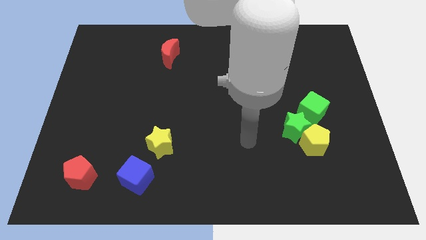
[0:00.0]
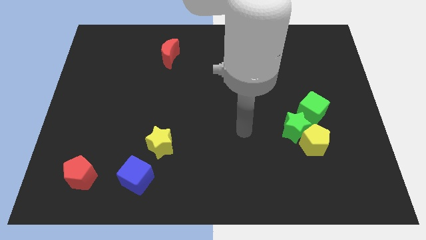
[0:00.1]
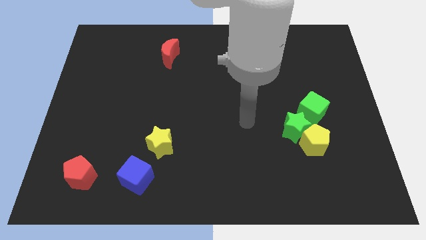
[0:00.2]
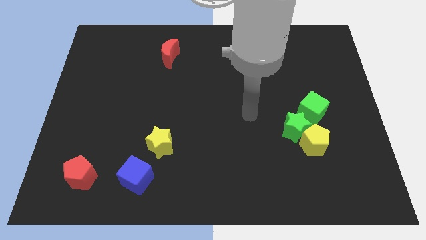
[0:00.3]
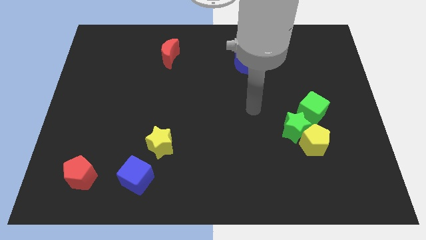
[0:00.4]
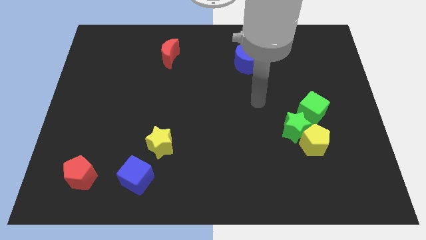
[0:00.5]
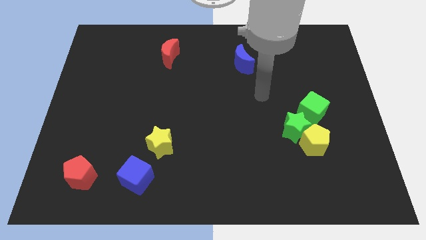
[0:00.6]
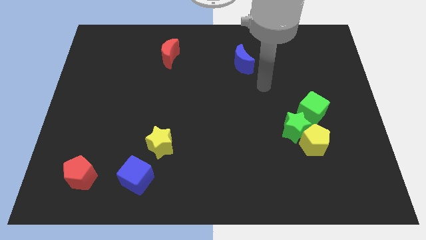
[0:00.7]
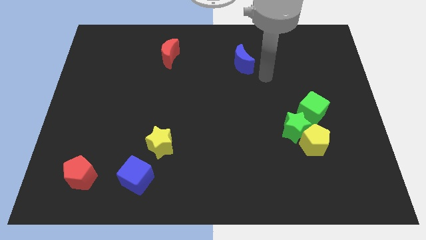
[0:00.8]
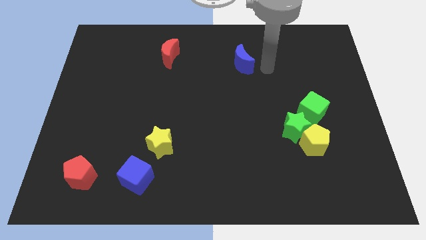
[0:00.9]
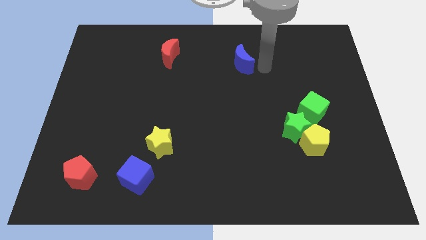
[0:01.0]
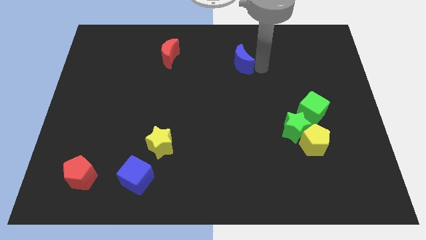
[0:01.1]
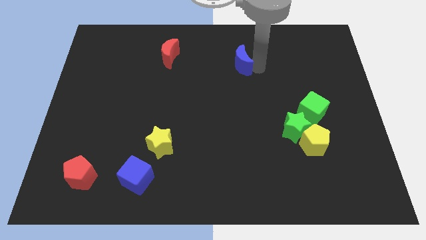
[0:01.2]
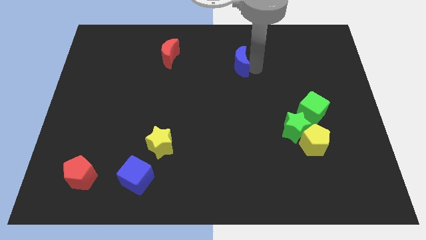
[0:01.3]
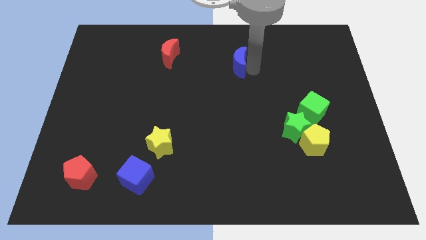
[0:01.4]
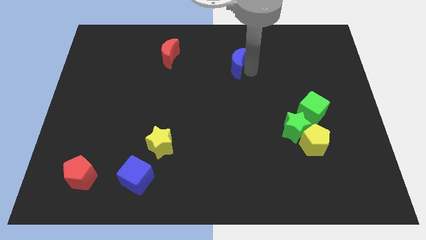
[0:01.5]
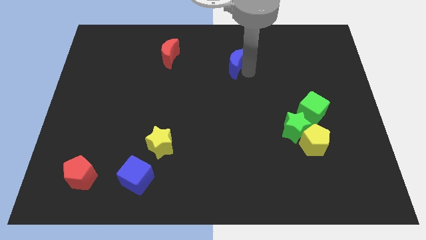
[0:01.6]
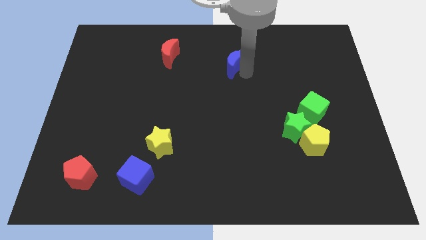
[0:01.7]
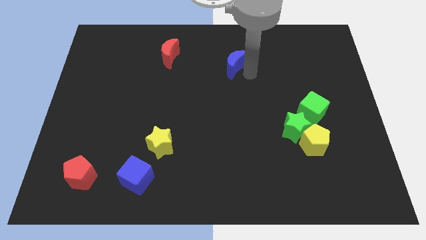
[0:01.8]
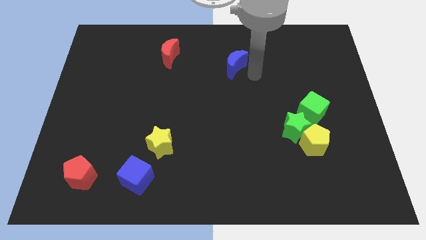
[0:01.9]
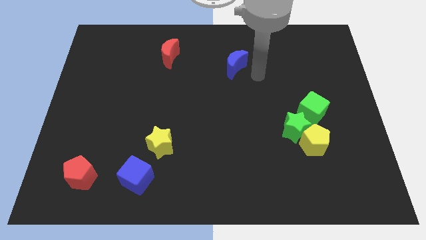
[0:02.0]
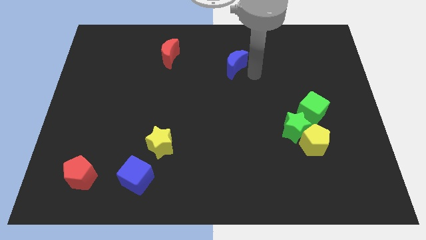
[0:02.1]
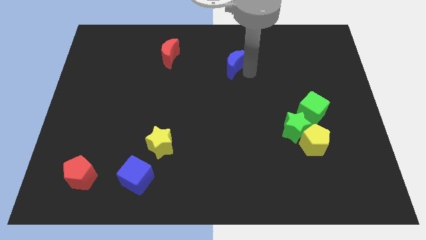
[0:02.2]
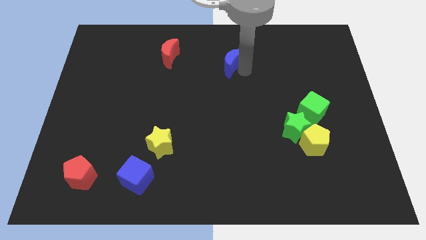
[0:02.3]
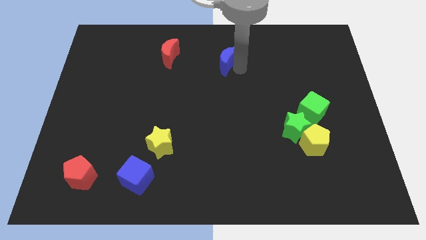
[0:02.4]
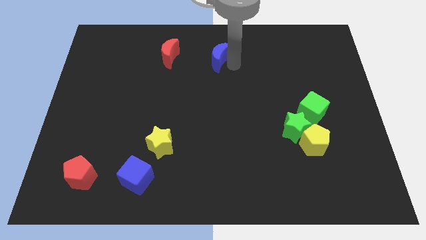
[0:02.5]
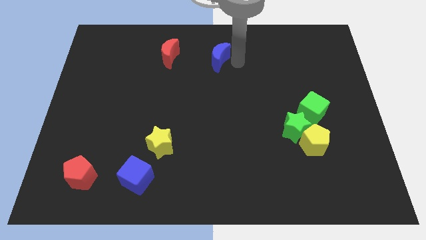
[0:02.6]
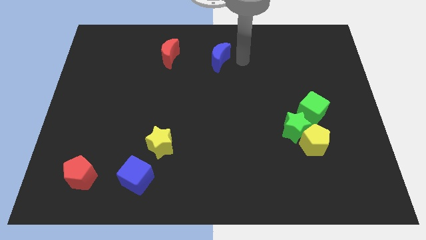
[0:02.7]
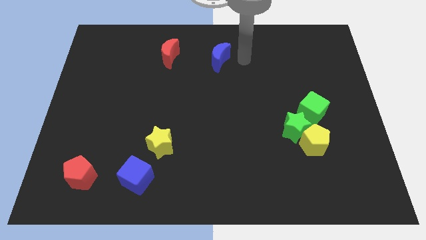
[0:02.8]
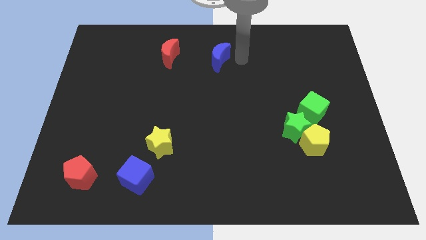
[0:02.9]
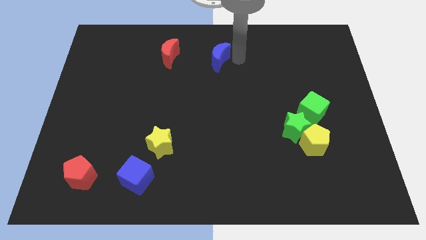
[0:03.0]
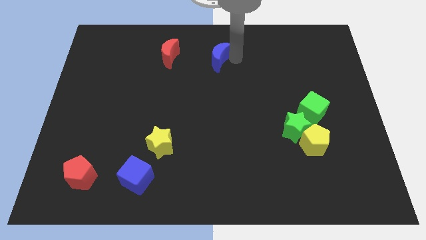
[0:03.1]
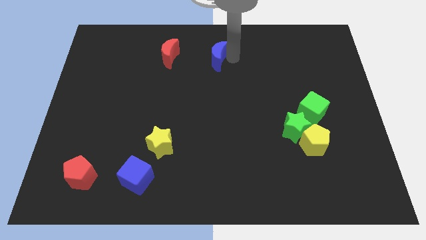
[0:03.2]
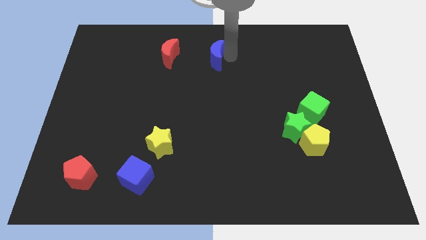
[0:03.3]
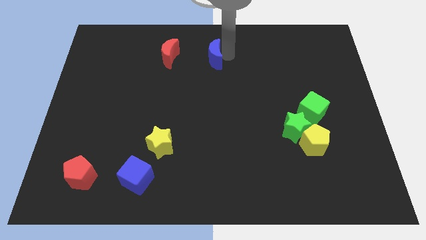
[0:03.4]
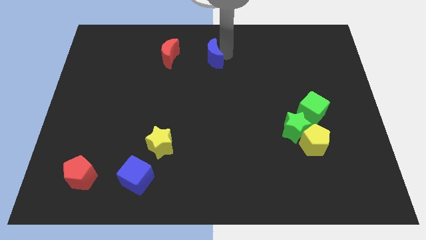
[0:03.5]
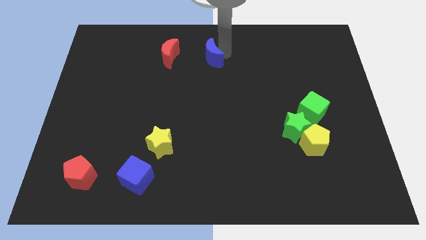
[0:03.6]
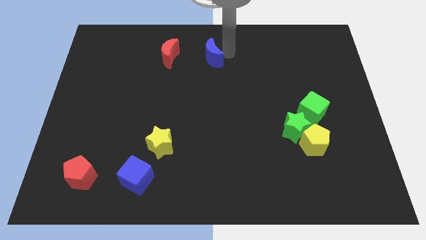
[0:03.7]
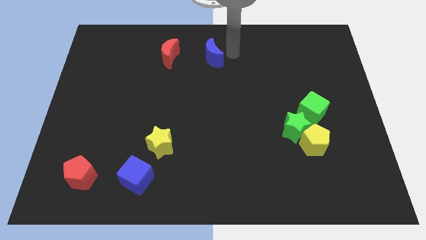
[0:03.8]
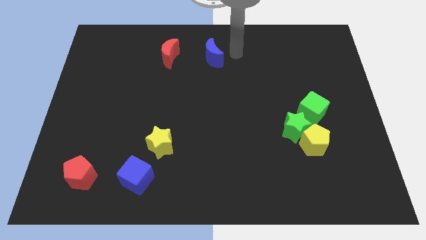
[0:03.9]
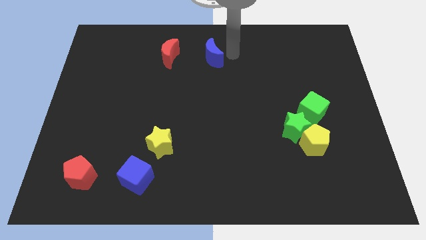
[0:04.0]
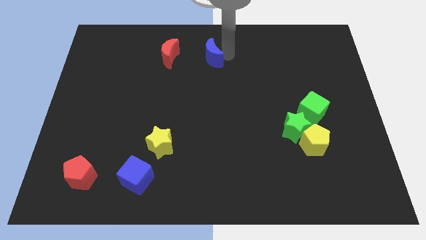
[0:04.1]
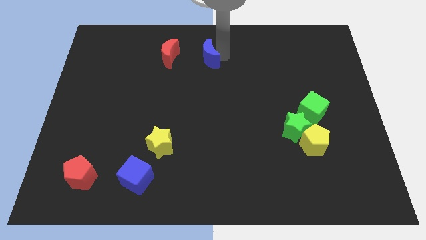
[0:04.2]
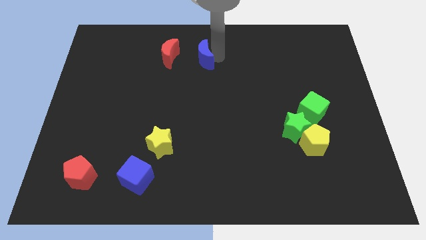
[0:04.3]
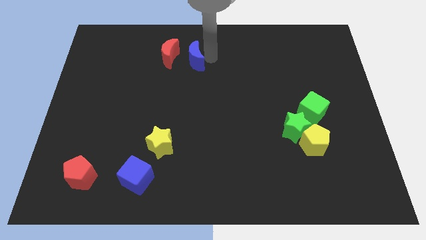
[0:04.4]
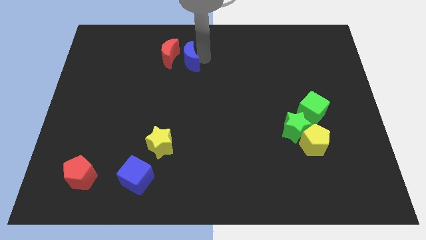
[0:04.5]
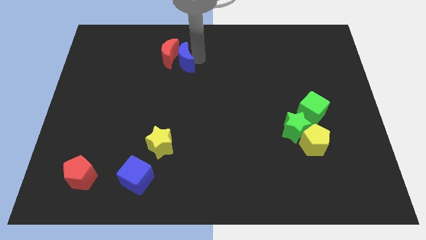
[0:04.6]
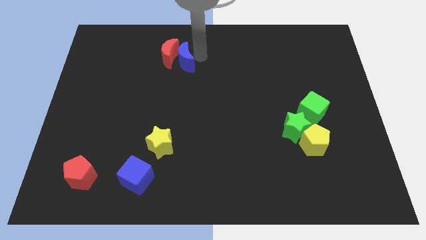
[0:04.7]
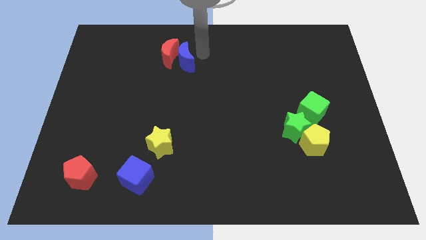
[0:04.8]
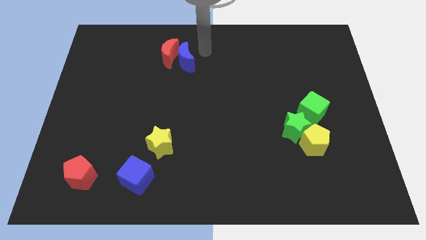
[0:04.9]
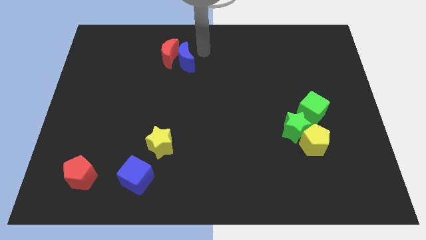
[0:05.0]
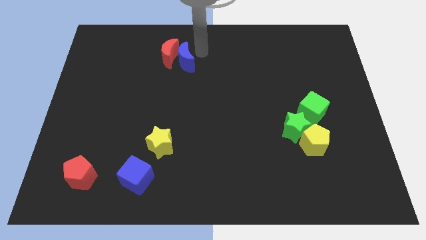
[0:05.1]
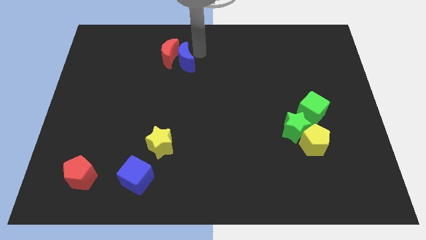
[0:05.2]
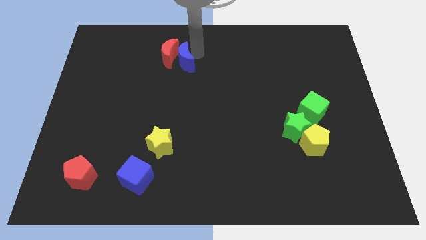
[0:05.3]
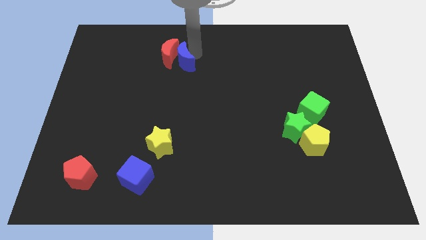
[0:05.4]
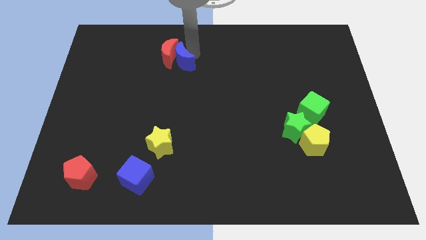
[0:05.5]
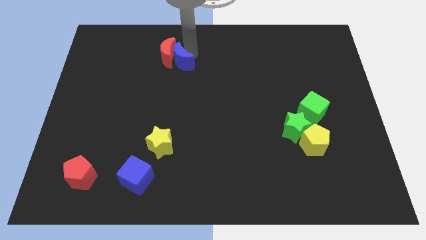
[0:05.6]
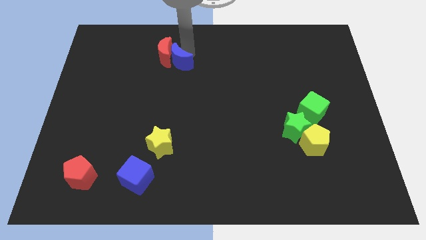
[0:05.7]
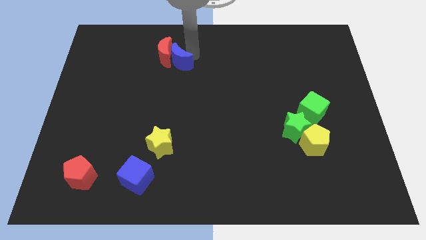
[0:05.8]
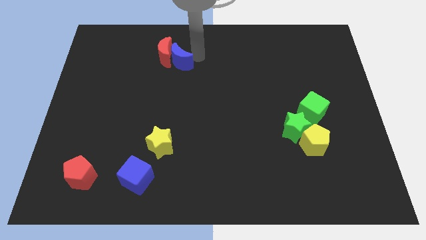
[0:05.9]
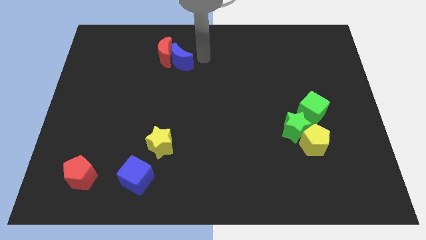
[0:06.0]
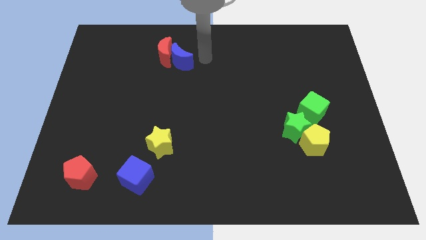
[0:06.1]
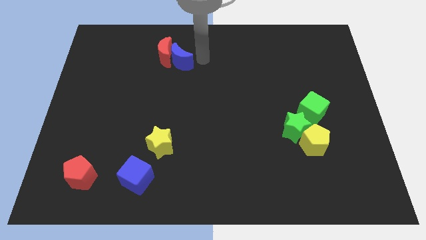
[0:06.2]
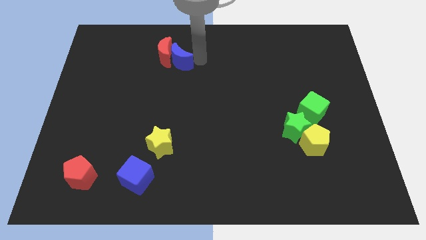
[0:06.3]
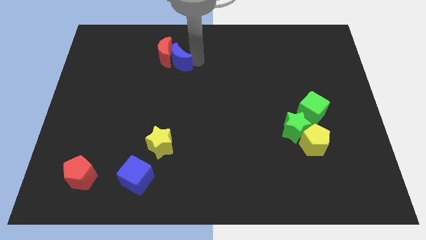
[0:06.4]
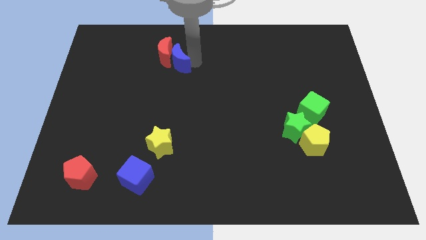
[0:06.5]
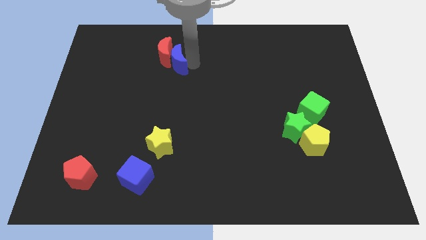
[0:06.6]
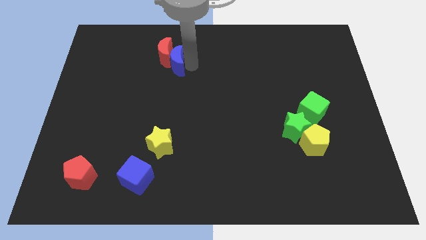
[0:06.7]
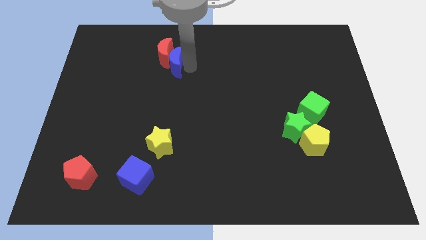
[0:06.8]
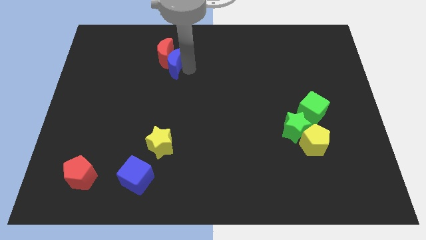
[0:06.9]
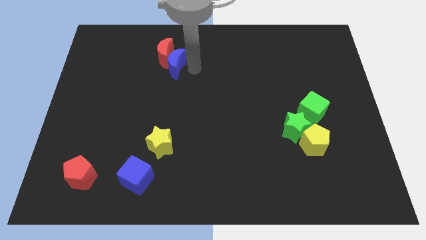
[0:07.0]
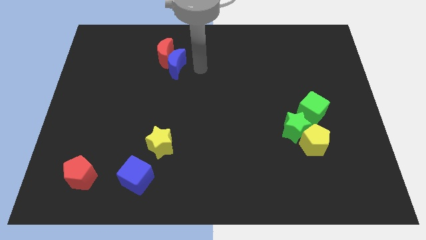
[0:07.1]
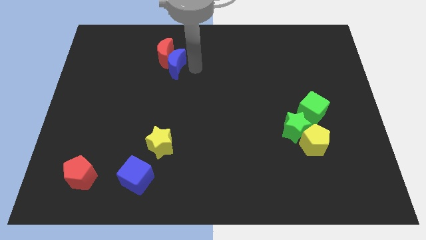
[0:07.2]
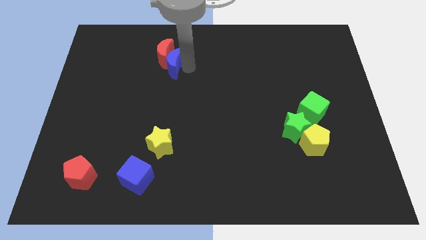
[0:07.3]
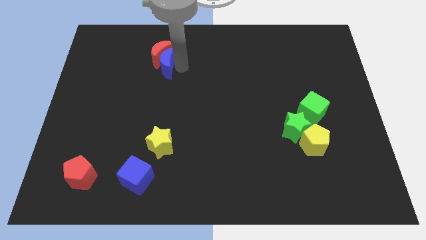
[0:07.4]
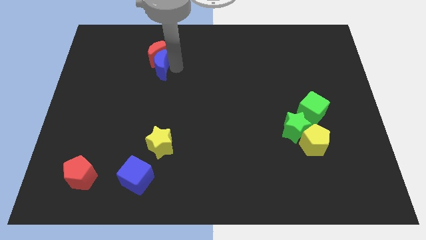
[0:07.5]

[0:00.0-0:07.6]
slide the blue moon to the left

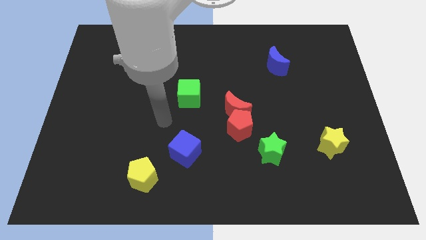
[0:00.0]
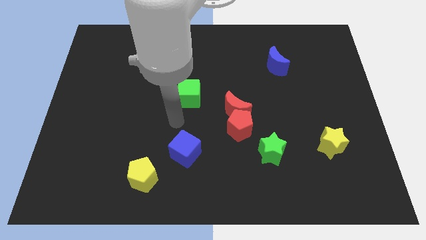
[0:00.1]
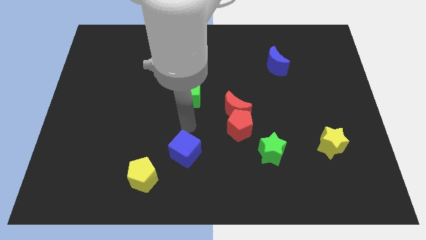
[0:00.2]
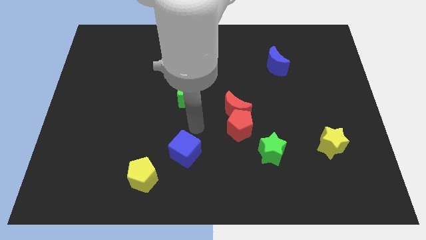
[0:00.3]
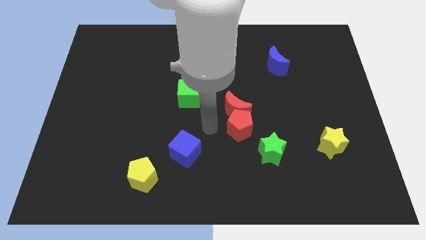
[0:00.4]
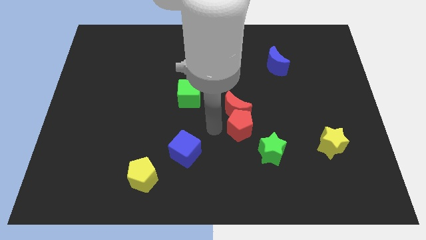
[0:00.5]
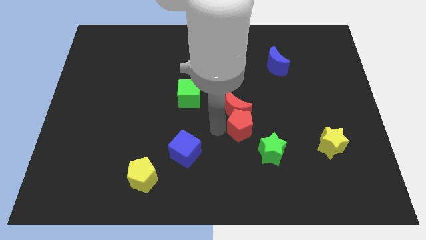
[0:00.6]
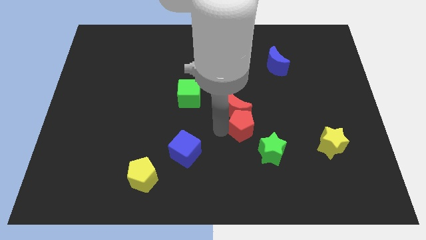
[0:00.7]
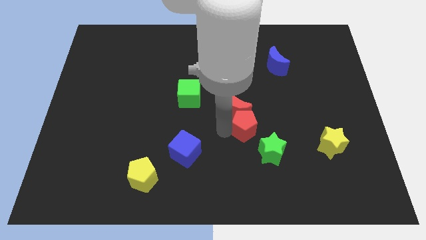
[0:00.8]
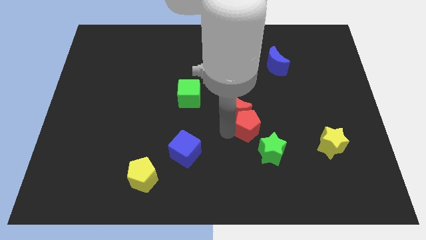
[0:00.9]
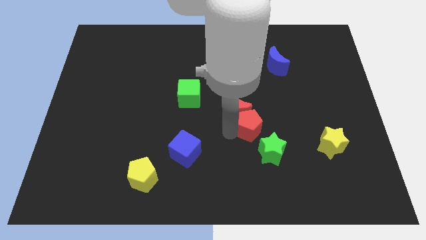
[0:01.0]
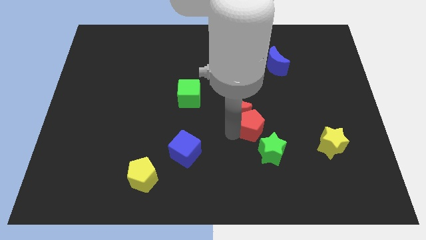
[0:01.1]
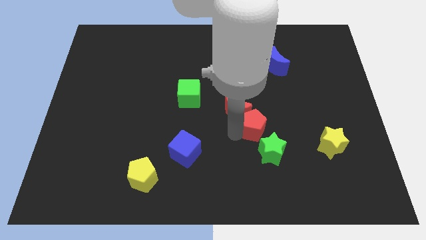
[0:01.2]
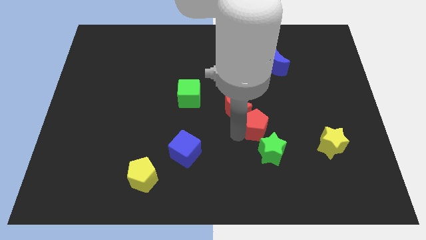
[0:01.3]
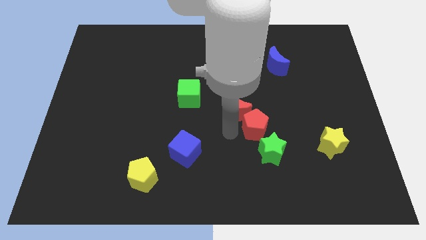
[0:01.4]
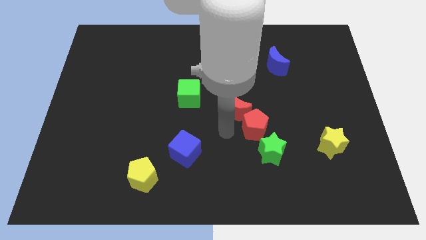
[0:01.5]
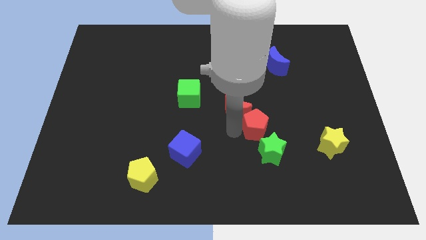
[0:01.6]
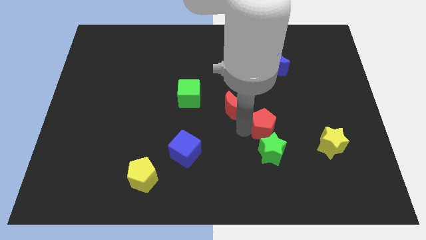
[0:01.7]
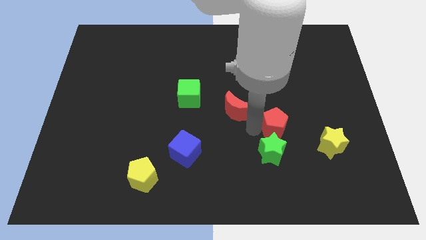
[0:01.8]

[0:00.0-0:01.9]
push the red pentagon right a little
